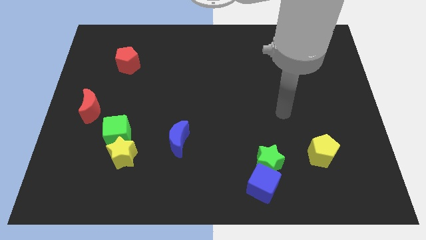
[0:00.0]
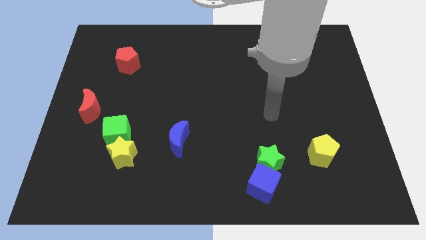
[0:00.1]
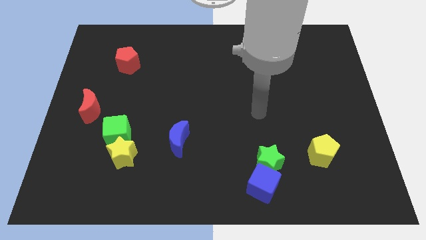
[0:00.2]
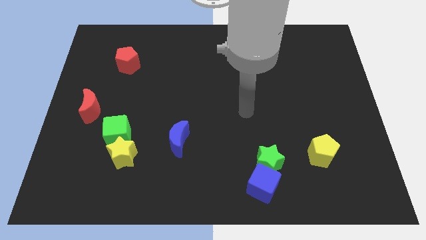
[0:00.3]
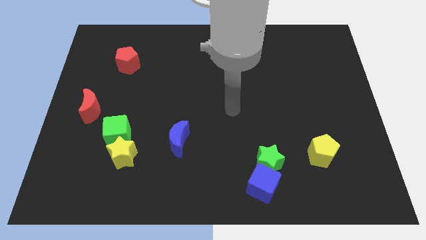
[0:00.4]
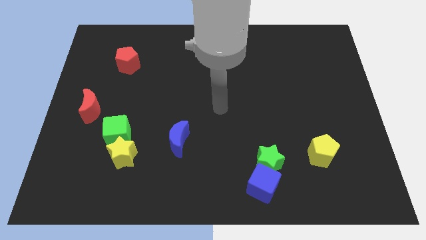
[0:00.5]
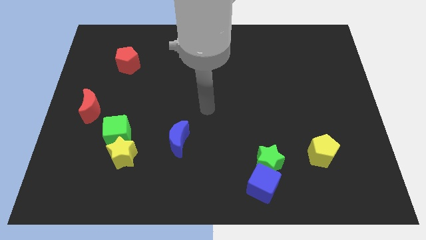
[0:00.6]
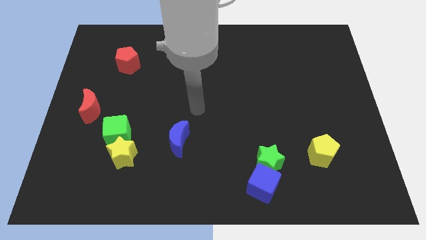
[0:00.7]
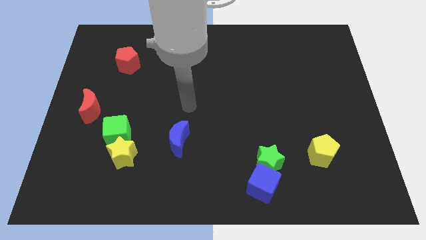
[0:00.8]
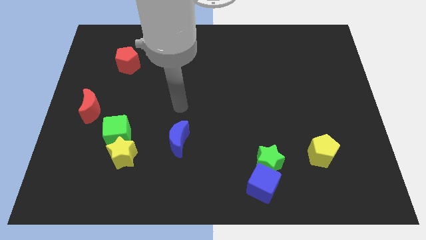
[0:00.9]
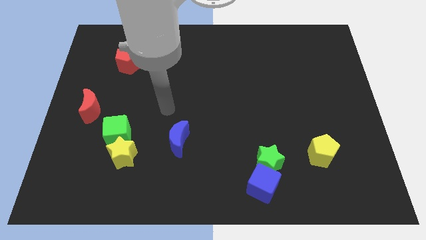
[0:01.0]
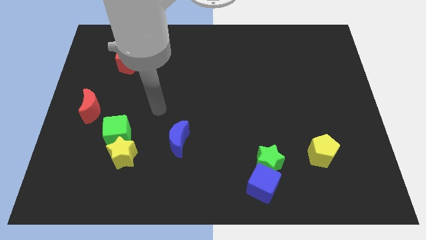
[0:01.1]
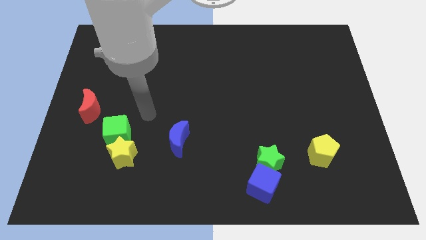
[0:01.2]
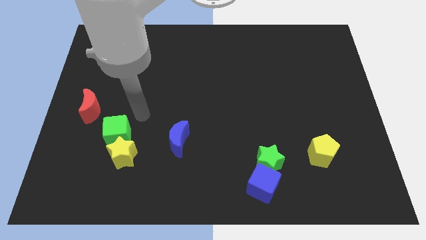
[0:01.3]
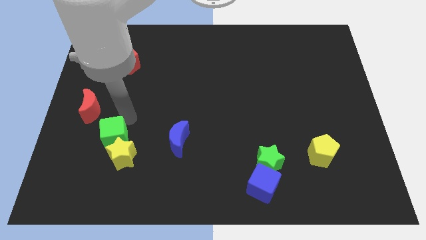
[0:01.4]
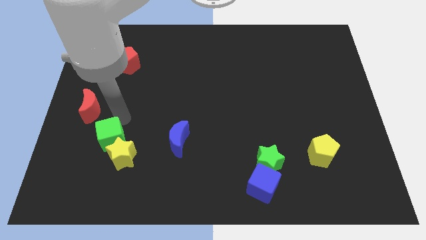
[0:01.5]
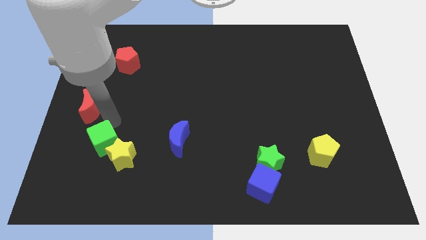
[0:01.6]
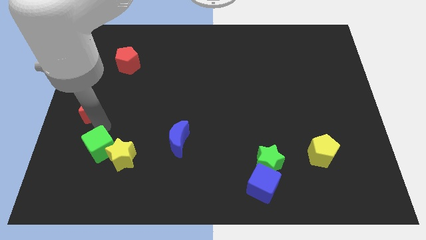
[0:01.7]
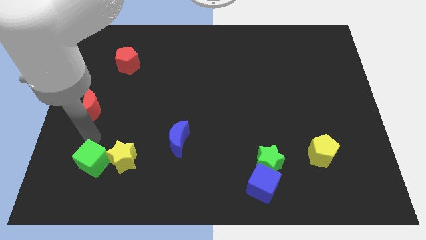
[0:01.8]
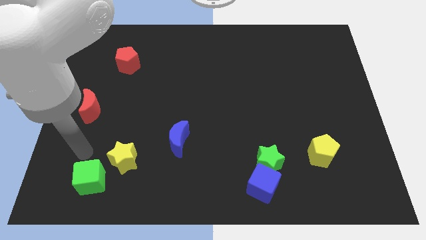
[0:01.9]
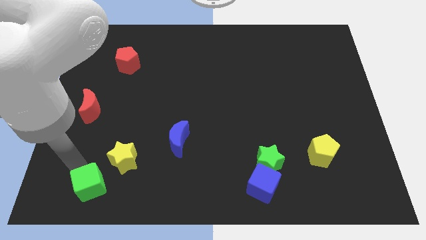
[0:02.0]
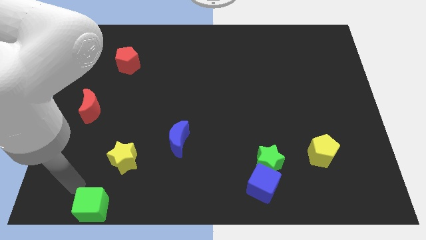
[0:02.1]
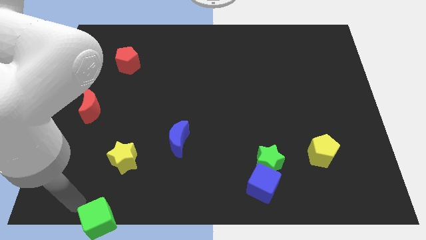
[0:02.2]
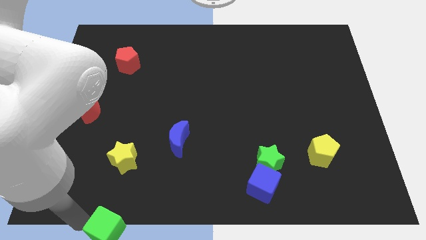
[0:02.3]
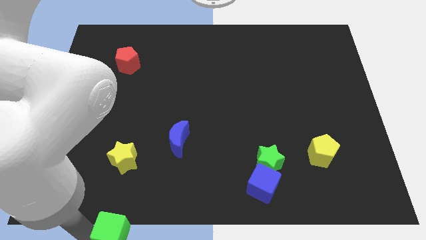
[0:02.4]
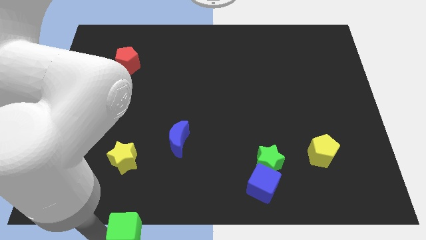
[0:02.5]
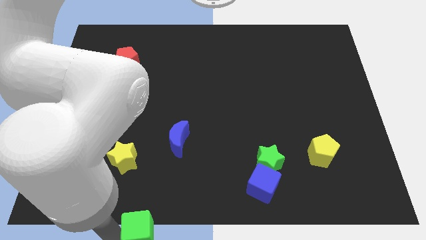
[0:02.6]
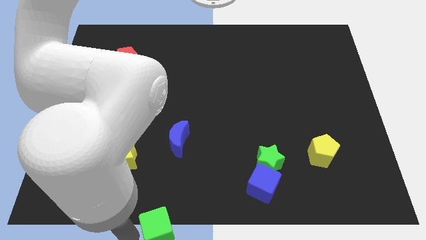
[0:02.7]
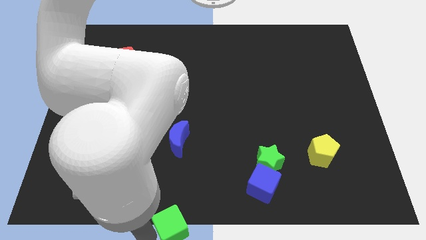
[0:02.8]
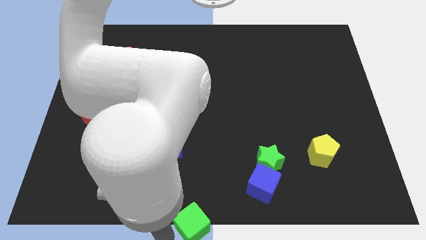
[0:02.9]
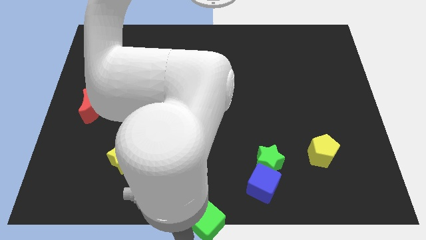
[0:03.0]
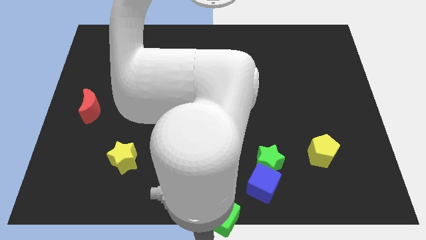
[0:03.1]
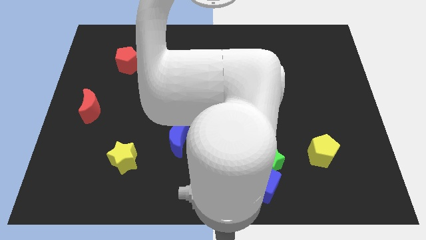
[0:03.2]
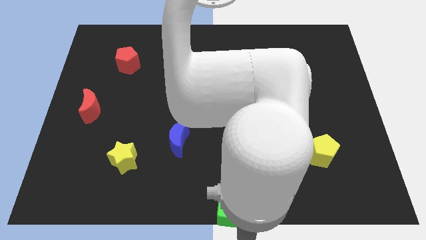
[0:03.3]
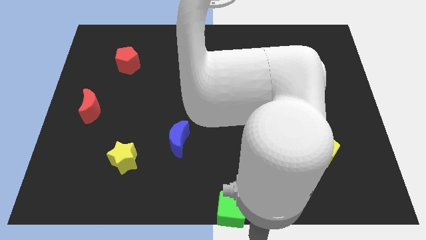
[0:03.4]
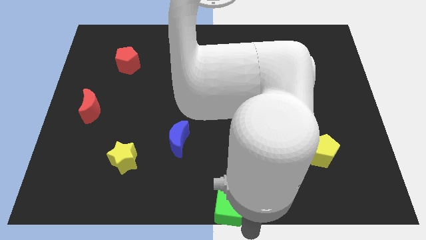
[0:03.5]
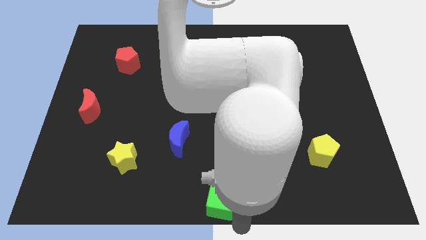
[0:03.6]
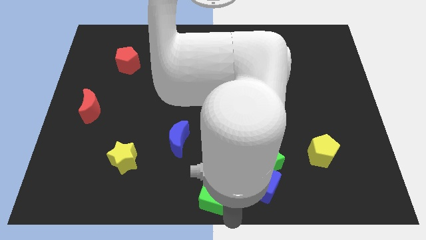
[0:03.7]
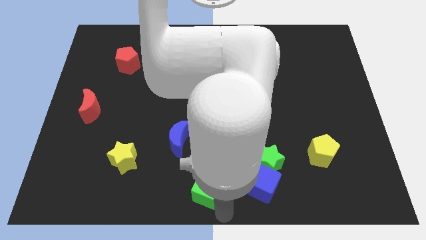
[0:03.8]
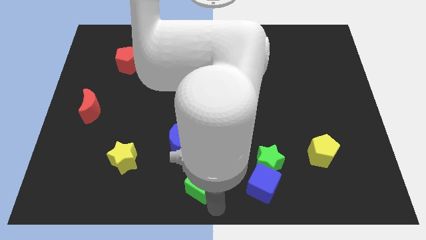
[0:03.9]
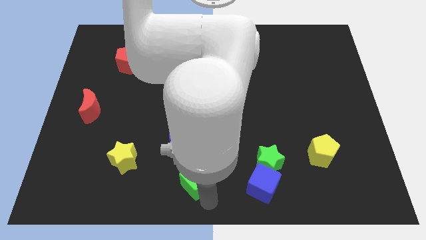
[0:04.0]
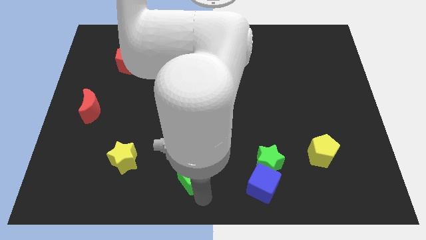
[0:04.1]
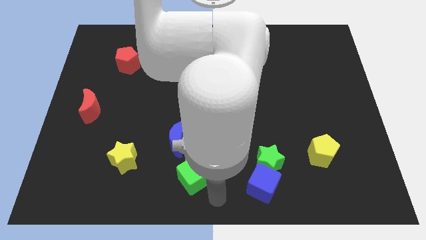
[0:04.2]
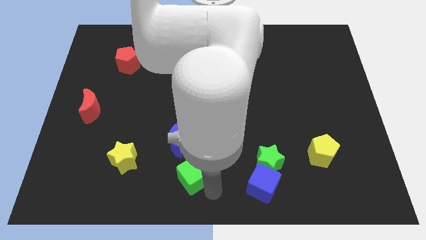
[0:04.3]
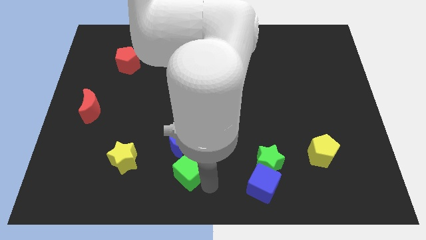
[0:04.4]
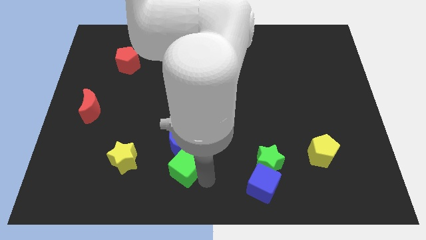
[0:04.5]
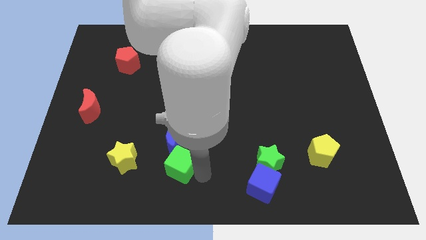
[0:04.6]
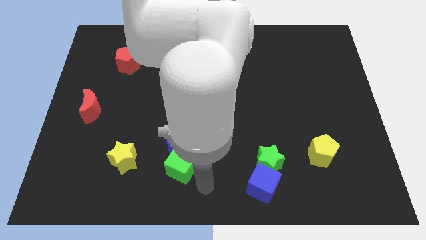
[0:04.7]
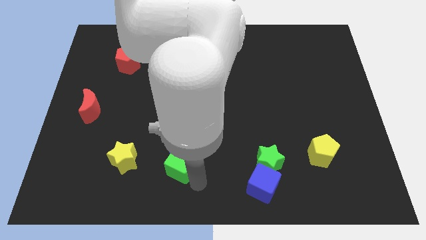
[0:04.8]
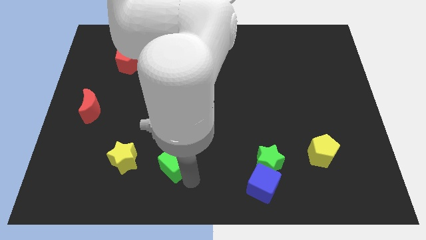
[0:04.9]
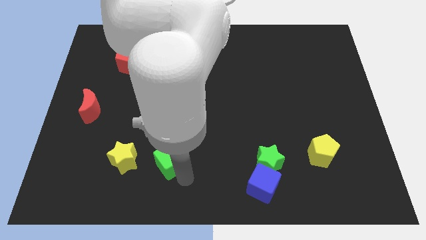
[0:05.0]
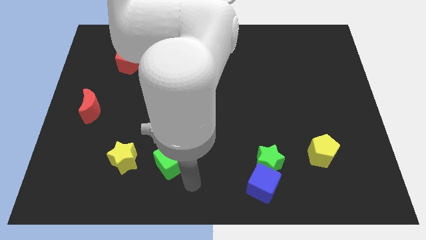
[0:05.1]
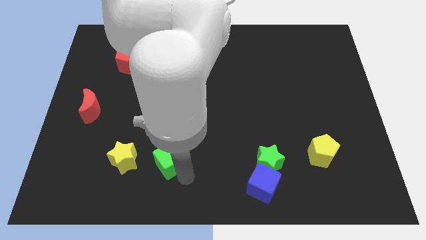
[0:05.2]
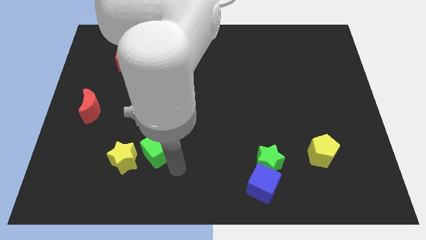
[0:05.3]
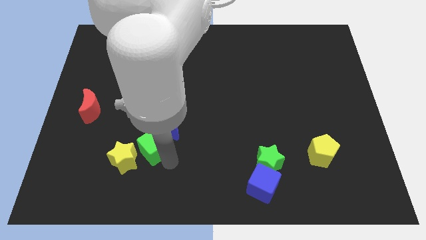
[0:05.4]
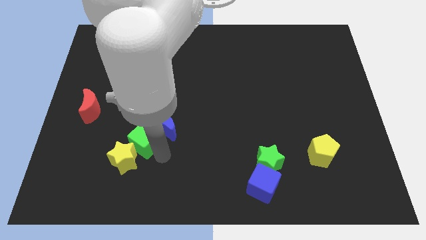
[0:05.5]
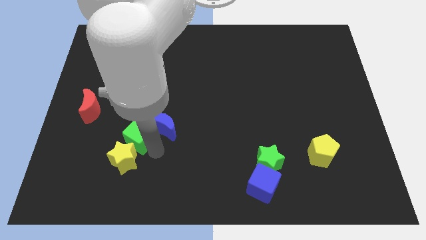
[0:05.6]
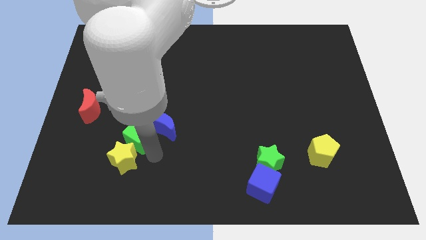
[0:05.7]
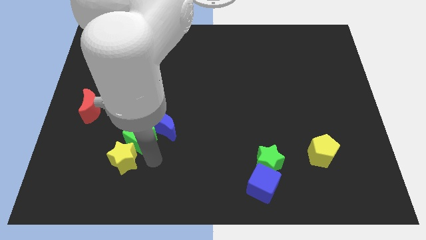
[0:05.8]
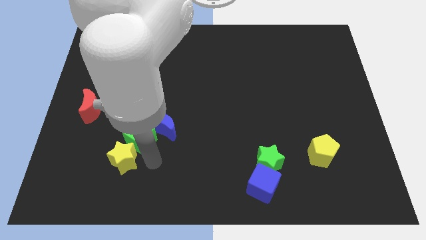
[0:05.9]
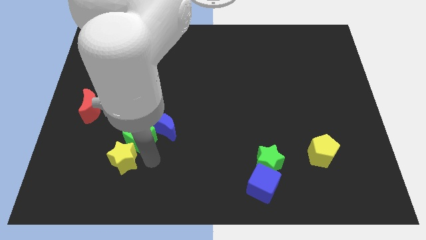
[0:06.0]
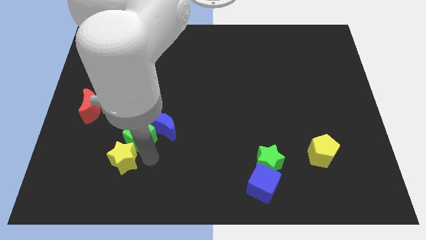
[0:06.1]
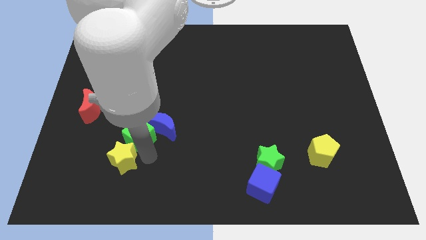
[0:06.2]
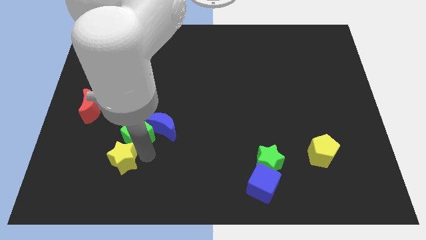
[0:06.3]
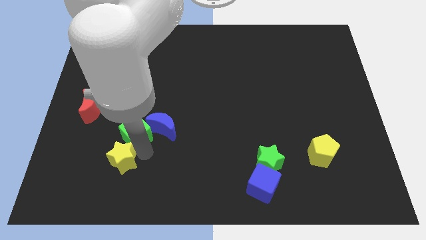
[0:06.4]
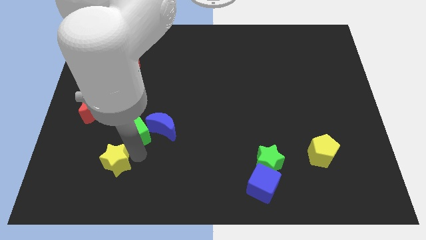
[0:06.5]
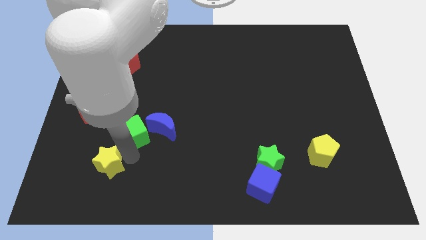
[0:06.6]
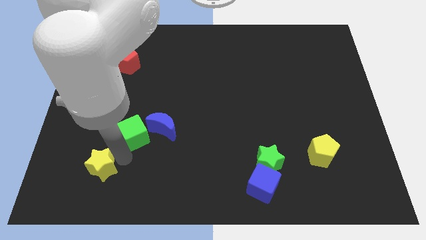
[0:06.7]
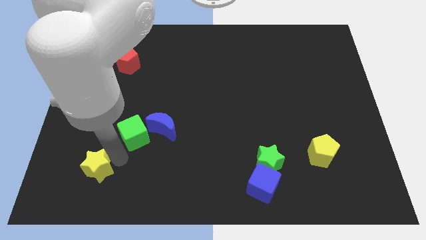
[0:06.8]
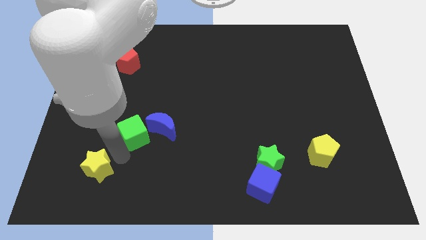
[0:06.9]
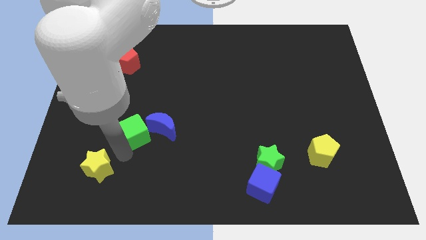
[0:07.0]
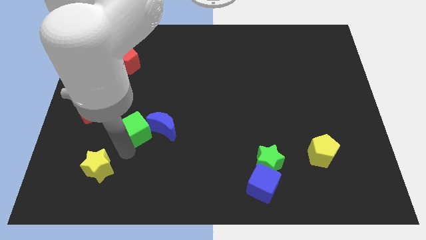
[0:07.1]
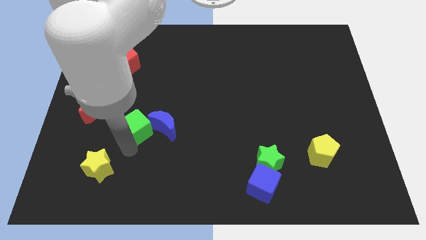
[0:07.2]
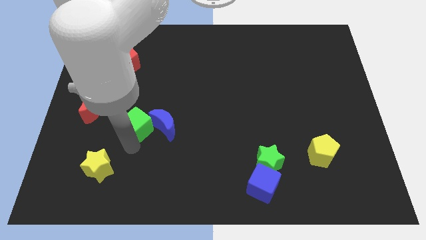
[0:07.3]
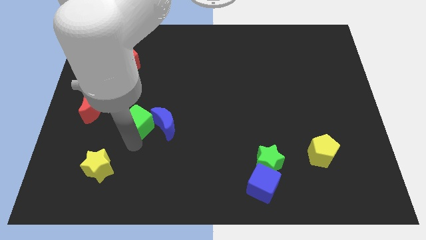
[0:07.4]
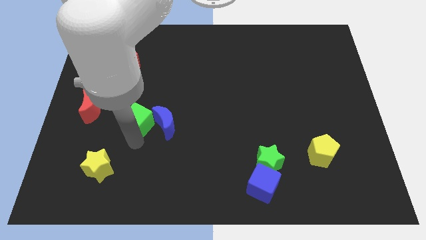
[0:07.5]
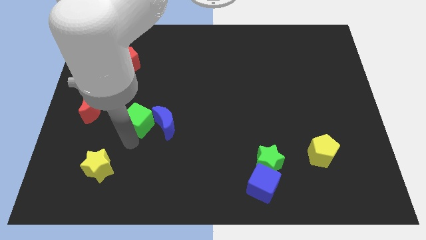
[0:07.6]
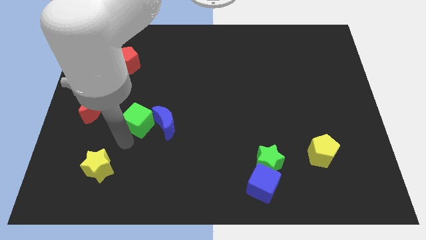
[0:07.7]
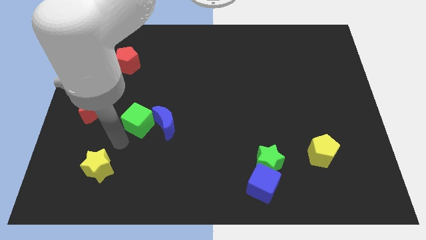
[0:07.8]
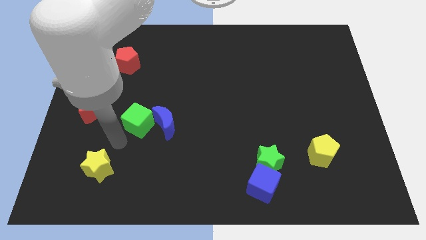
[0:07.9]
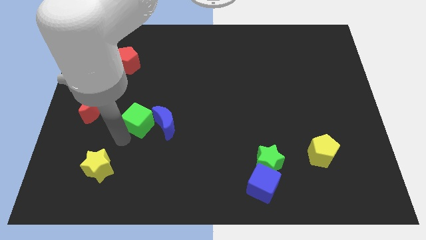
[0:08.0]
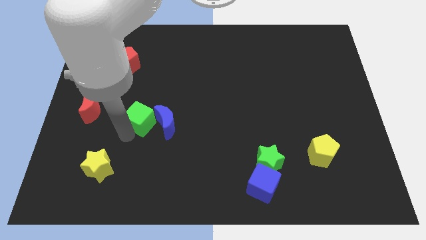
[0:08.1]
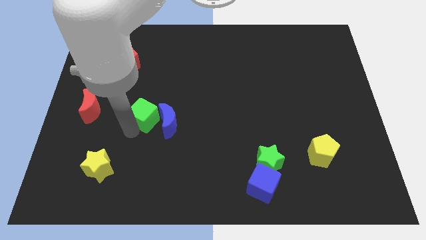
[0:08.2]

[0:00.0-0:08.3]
slightly move the green cube diagonally up and right
